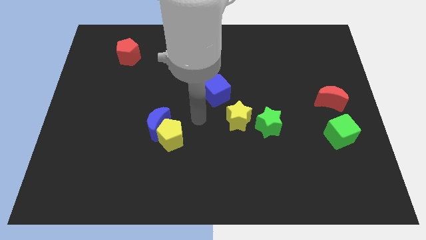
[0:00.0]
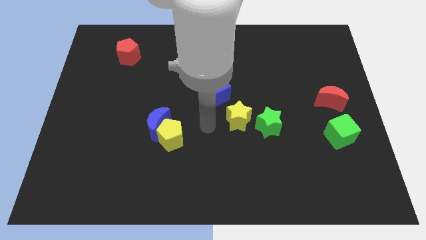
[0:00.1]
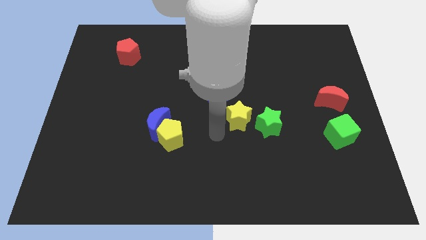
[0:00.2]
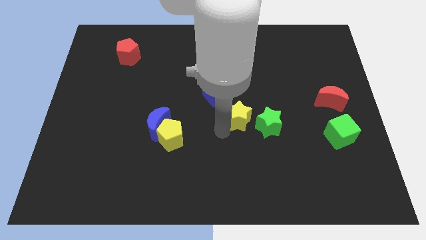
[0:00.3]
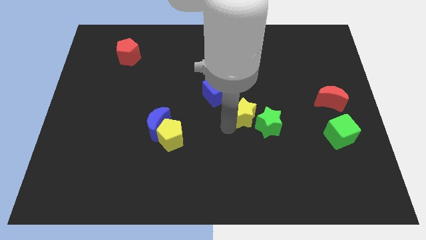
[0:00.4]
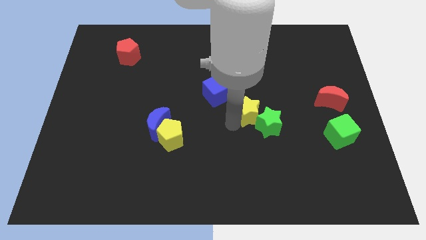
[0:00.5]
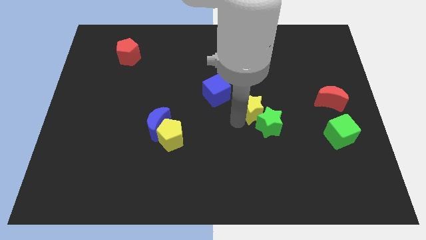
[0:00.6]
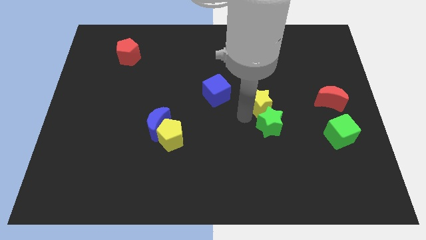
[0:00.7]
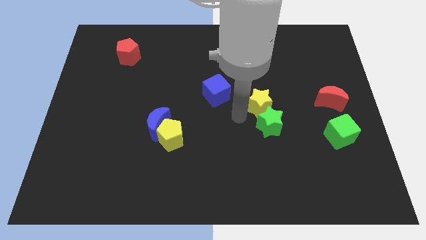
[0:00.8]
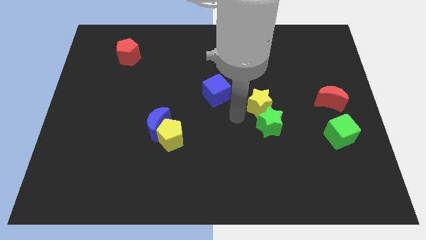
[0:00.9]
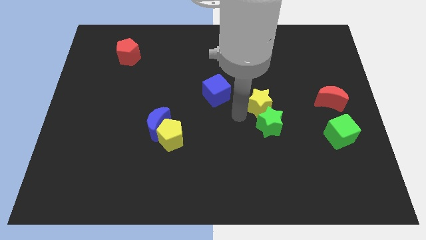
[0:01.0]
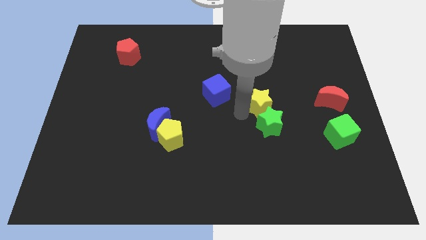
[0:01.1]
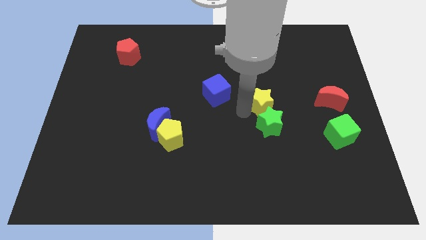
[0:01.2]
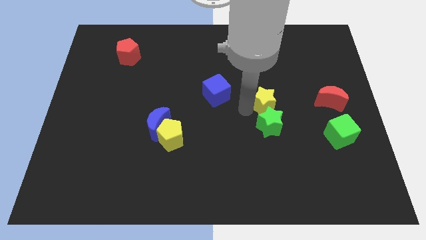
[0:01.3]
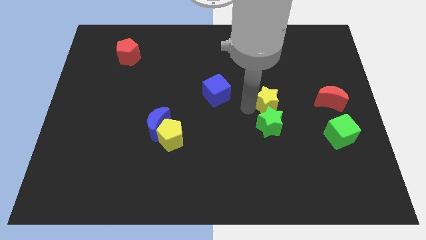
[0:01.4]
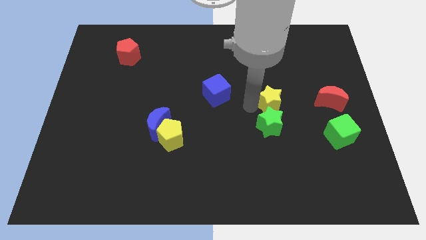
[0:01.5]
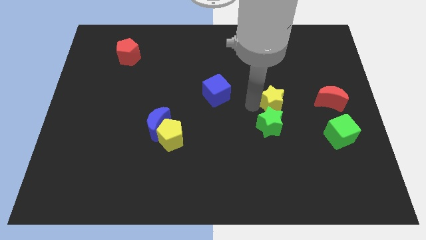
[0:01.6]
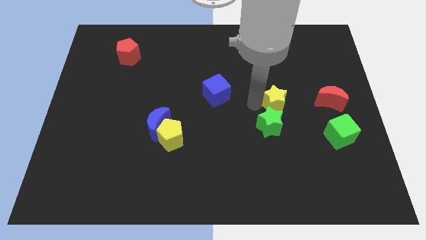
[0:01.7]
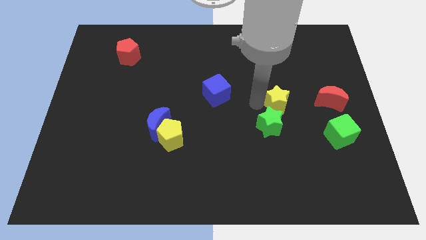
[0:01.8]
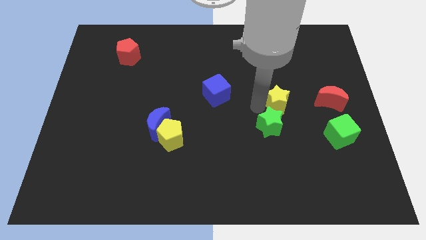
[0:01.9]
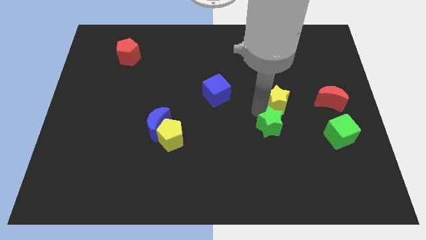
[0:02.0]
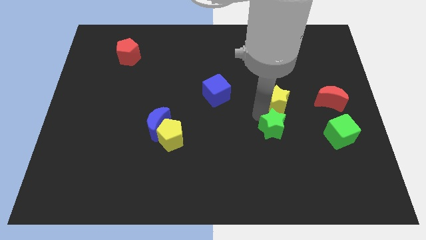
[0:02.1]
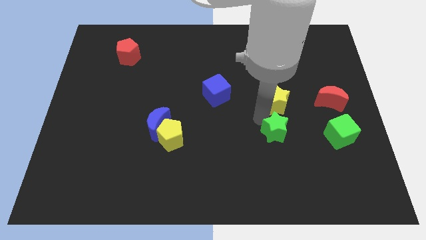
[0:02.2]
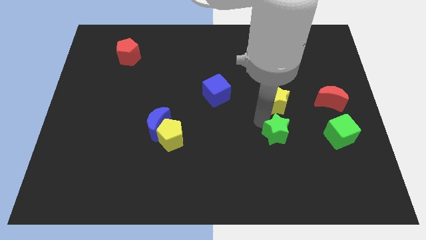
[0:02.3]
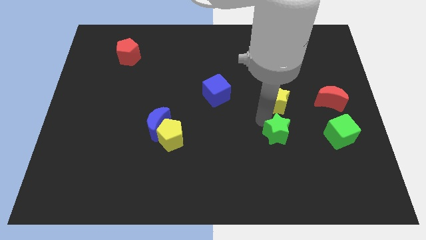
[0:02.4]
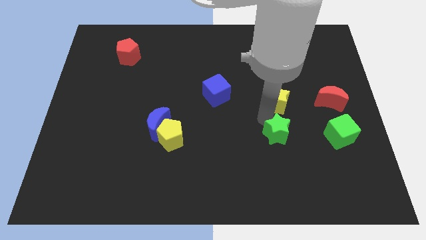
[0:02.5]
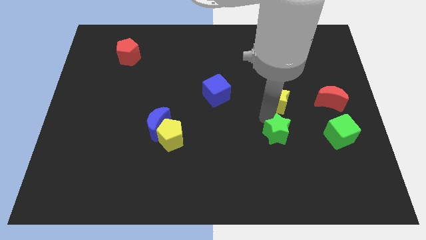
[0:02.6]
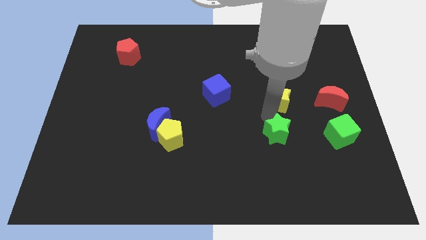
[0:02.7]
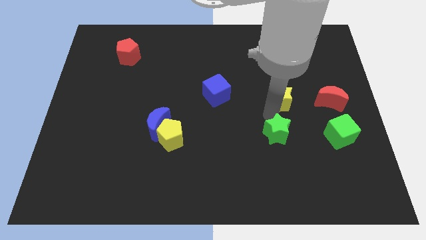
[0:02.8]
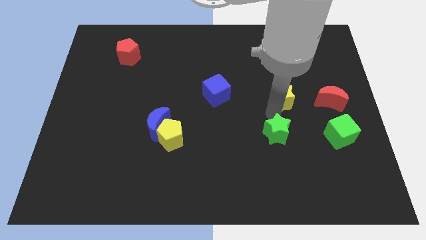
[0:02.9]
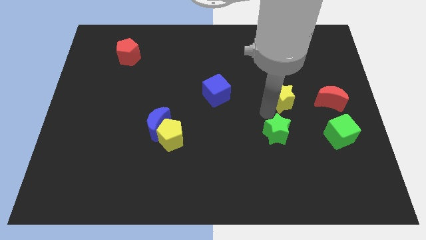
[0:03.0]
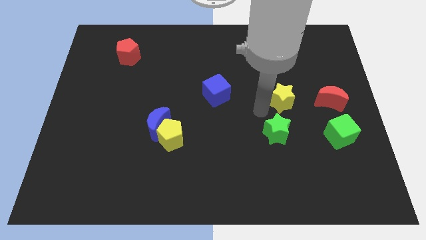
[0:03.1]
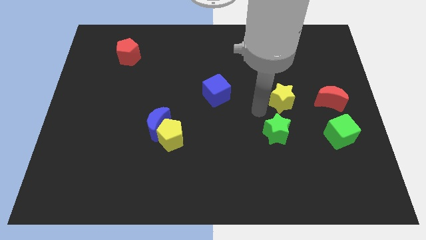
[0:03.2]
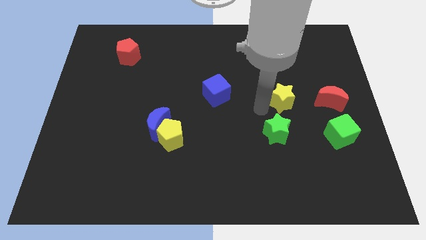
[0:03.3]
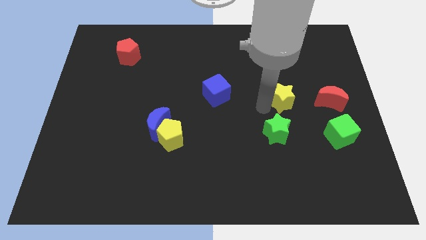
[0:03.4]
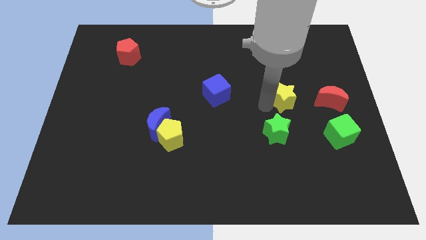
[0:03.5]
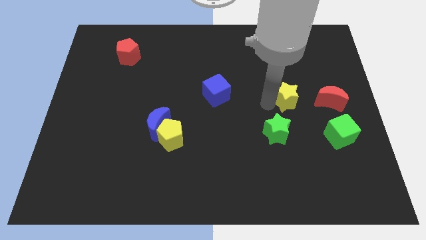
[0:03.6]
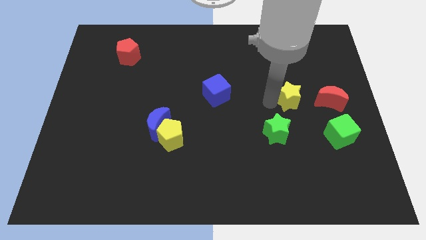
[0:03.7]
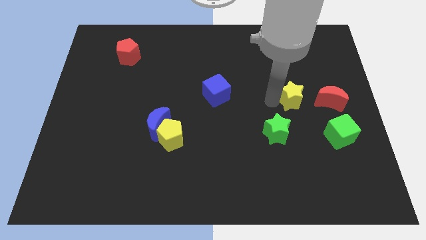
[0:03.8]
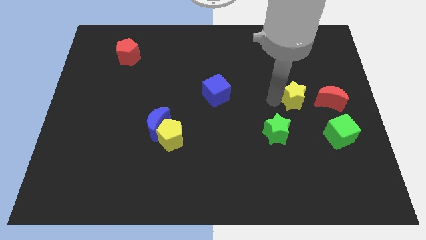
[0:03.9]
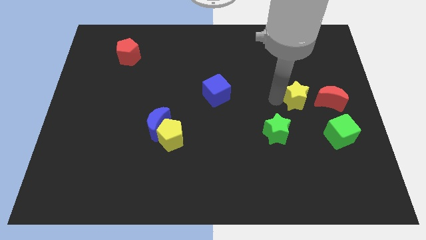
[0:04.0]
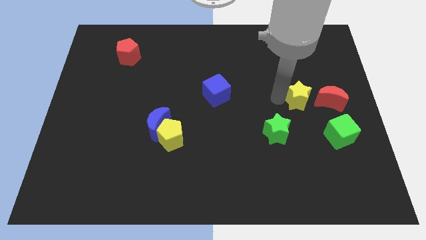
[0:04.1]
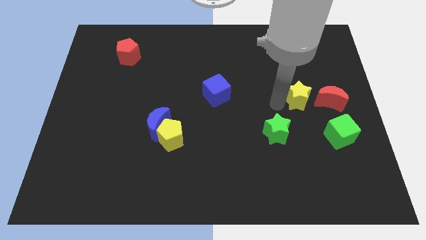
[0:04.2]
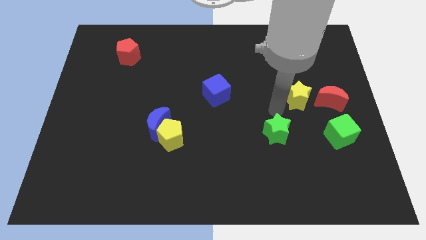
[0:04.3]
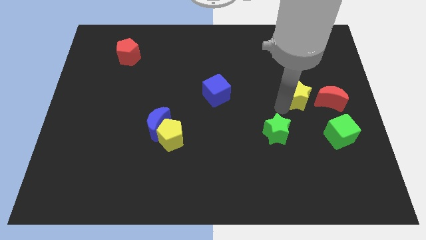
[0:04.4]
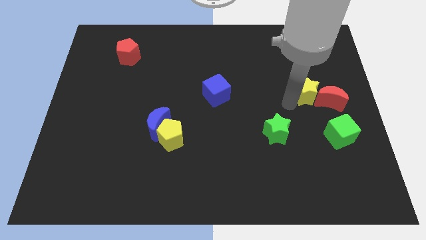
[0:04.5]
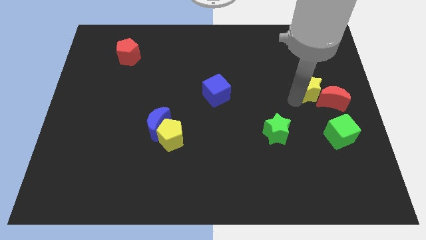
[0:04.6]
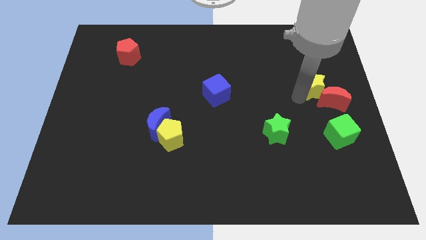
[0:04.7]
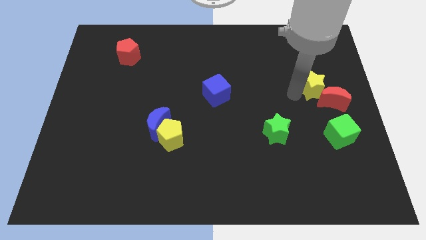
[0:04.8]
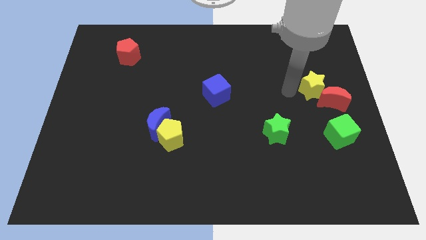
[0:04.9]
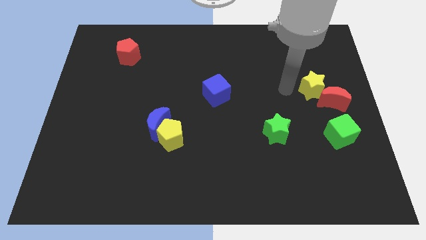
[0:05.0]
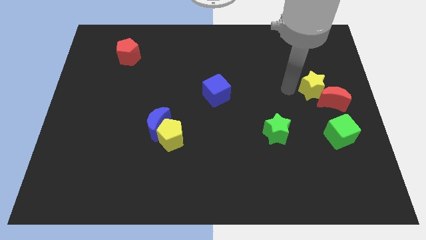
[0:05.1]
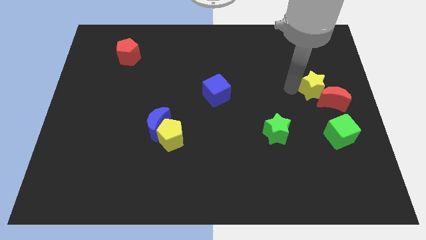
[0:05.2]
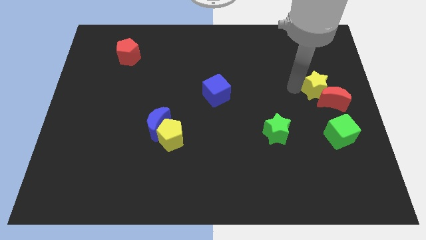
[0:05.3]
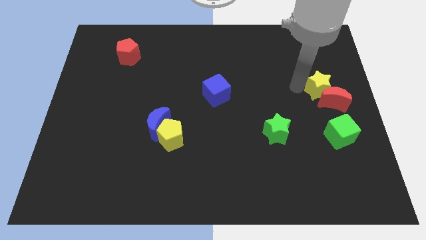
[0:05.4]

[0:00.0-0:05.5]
push the yellow star to the right side
